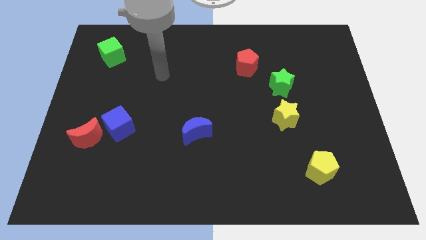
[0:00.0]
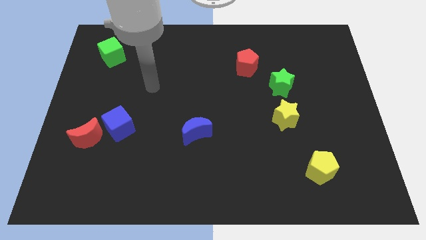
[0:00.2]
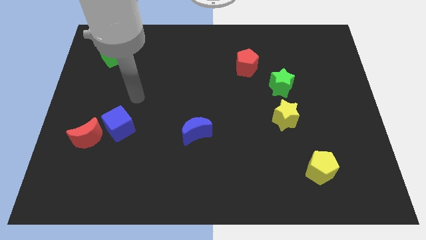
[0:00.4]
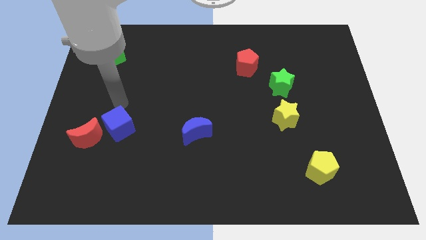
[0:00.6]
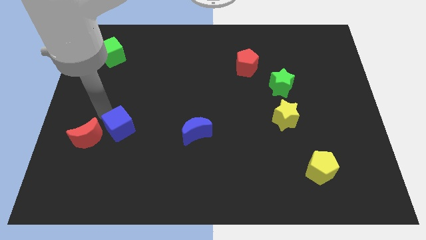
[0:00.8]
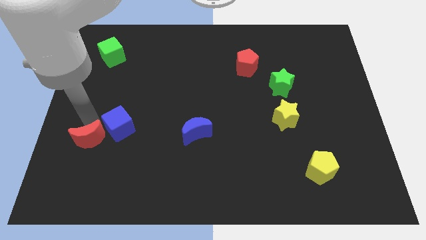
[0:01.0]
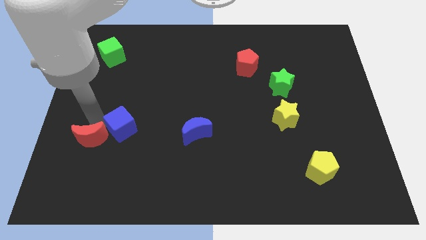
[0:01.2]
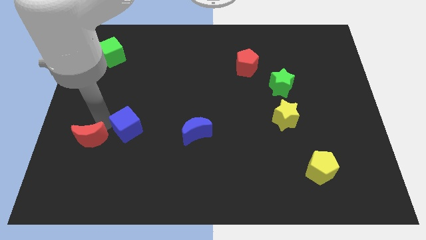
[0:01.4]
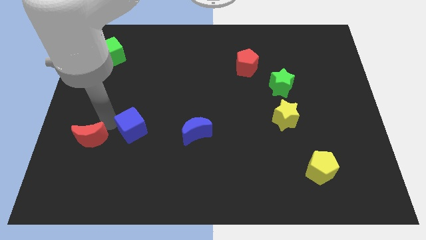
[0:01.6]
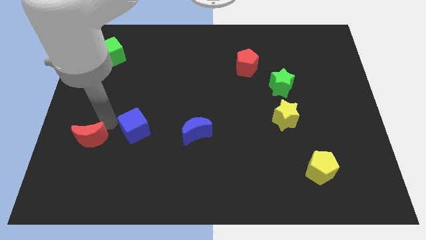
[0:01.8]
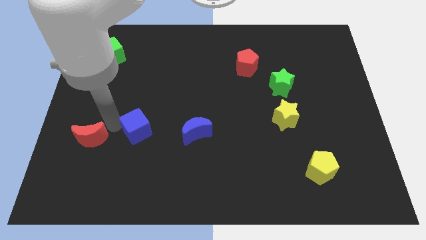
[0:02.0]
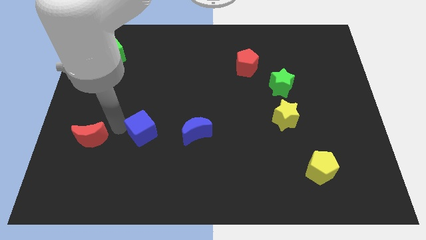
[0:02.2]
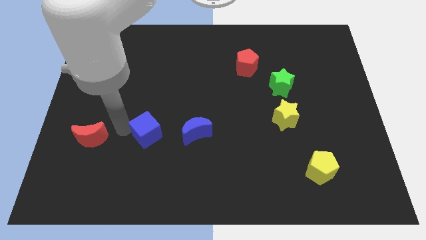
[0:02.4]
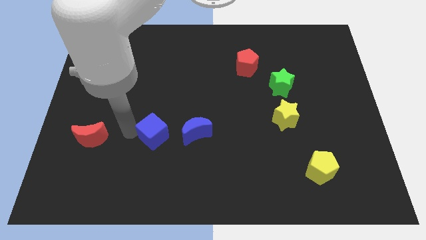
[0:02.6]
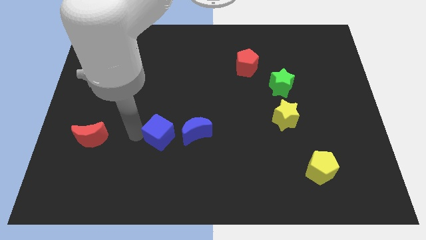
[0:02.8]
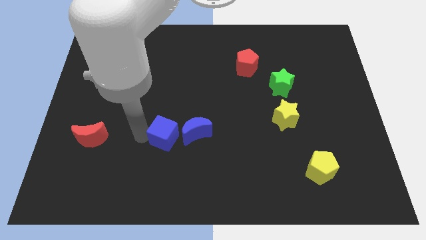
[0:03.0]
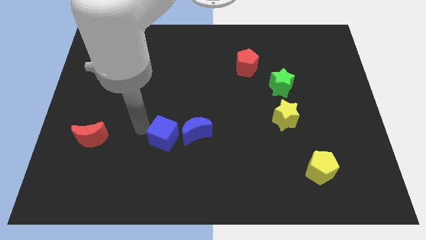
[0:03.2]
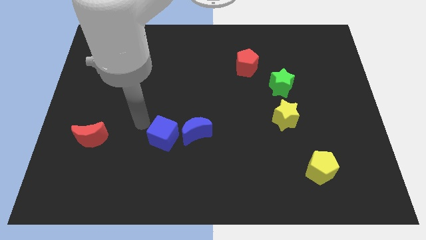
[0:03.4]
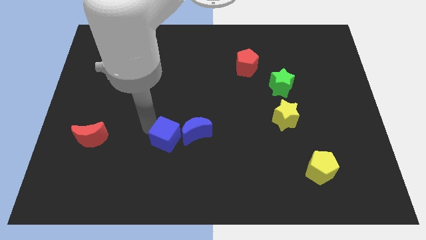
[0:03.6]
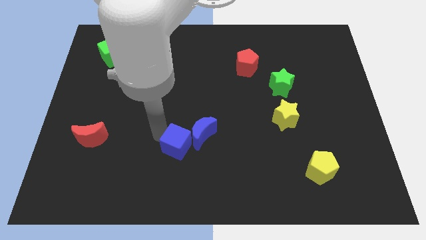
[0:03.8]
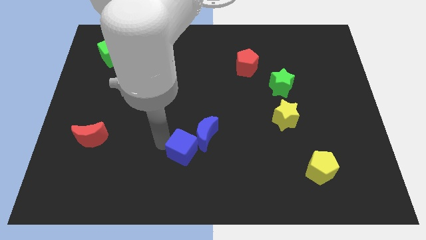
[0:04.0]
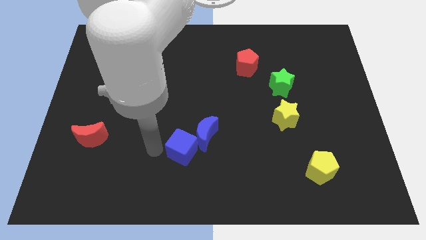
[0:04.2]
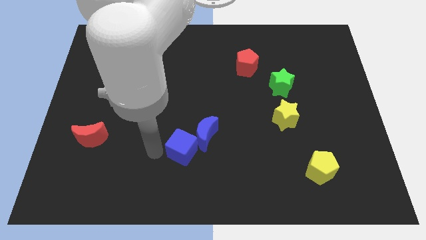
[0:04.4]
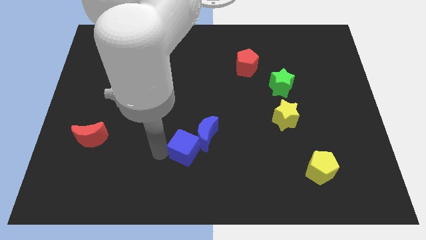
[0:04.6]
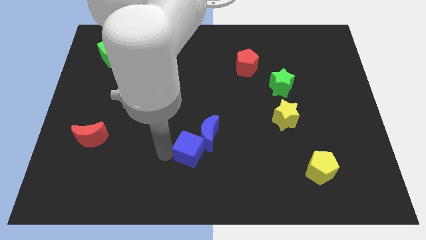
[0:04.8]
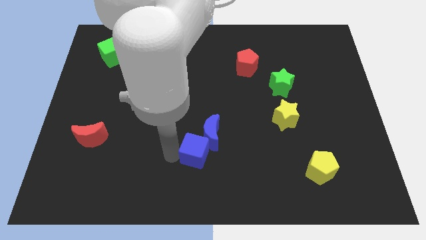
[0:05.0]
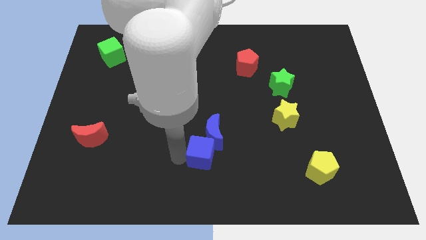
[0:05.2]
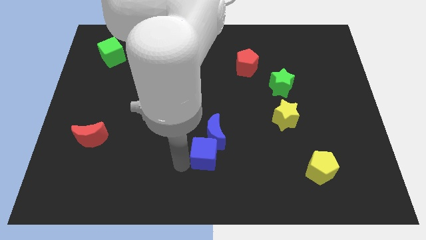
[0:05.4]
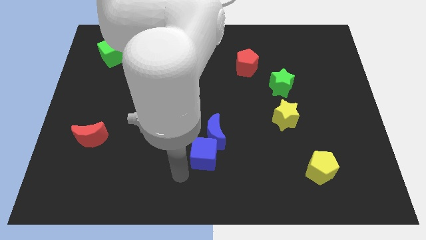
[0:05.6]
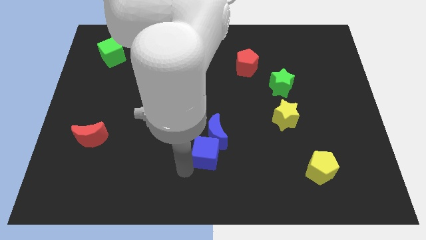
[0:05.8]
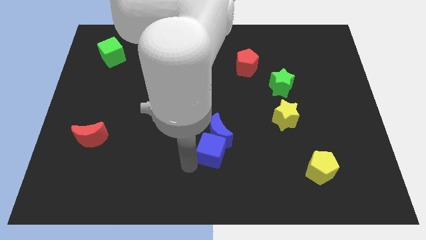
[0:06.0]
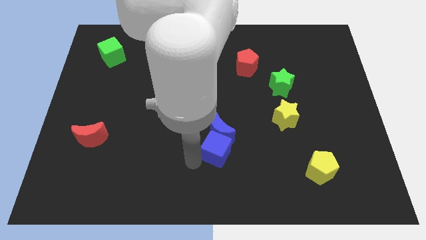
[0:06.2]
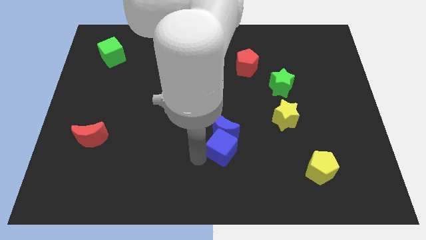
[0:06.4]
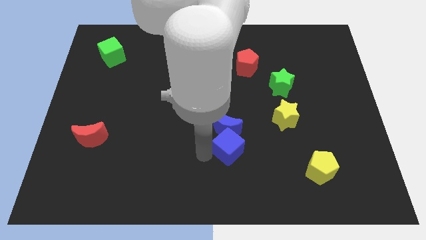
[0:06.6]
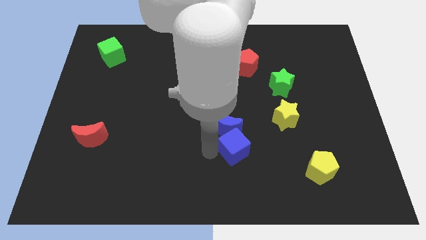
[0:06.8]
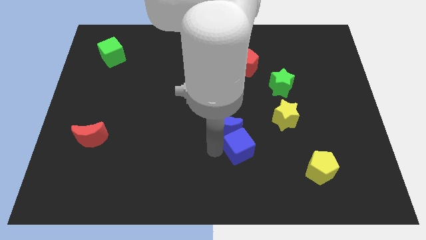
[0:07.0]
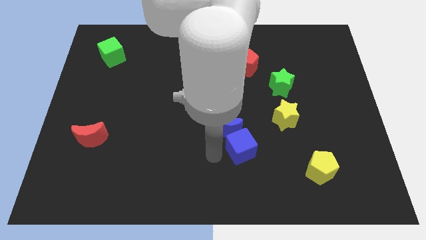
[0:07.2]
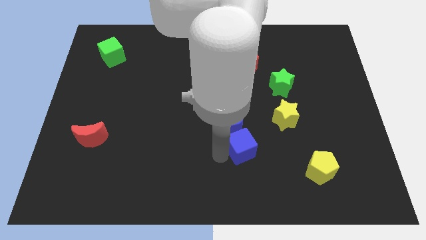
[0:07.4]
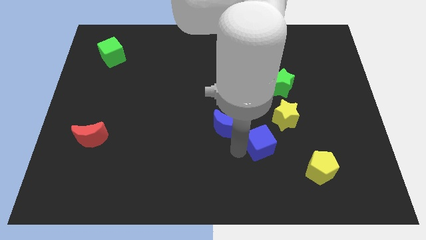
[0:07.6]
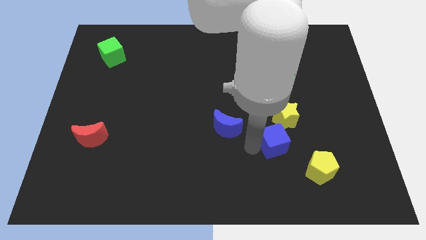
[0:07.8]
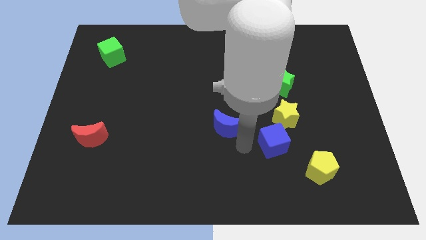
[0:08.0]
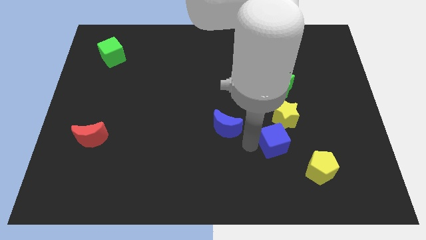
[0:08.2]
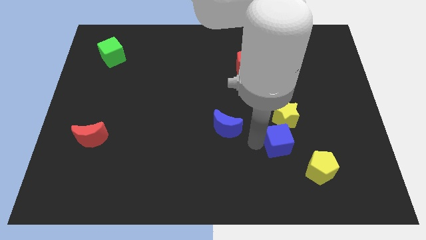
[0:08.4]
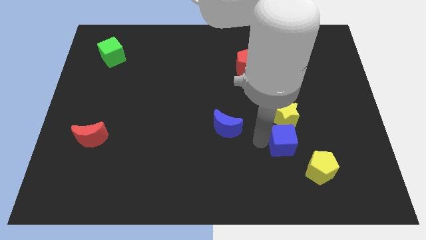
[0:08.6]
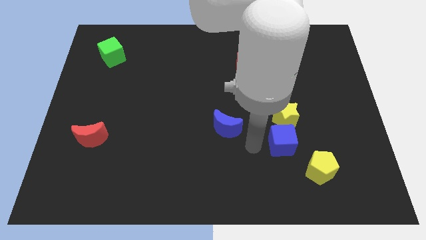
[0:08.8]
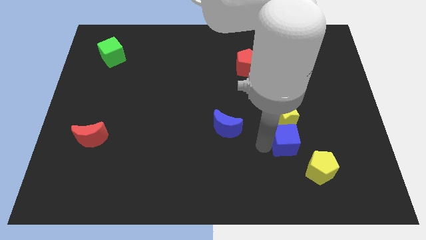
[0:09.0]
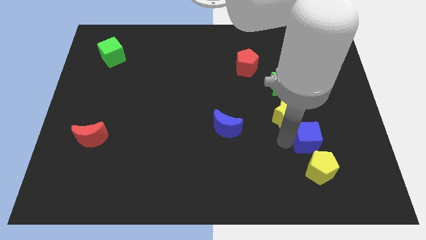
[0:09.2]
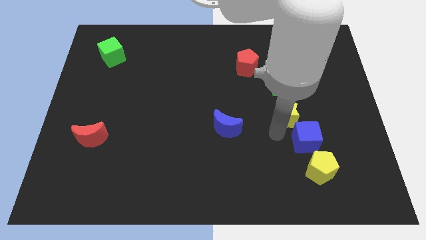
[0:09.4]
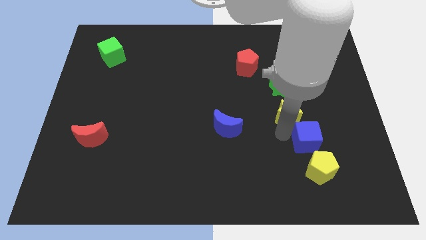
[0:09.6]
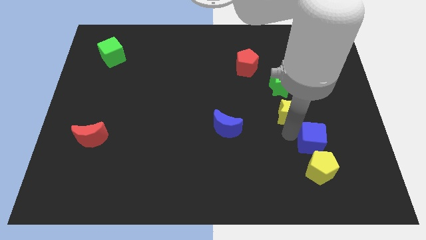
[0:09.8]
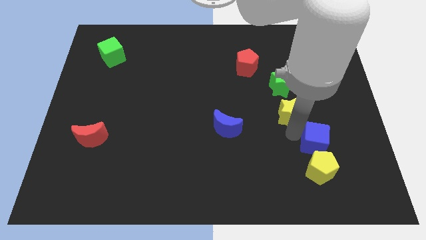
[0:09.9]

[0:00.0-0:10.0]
push the blue cube to the top right of the yellow pentagon

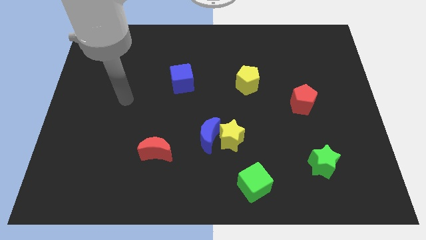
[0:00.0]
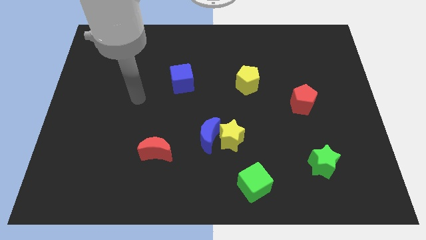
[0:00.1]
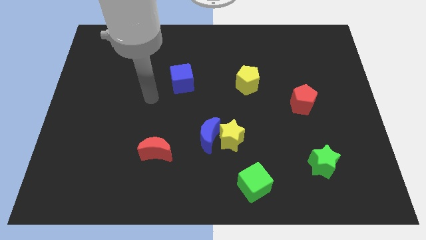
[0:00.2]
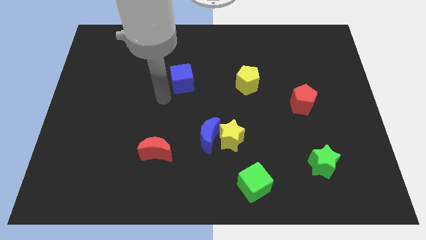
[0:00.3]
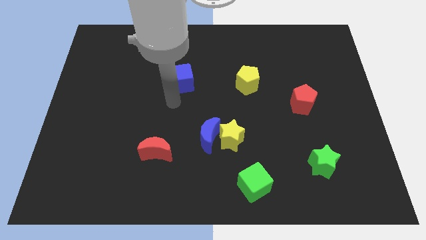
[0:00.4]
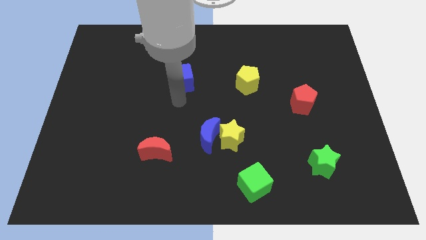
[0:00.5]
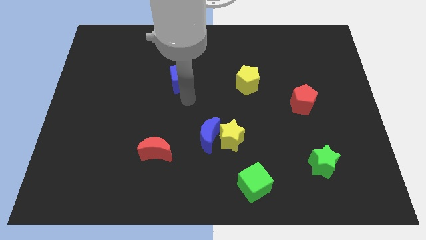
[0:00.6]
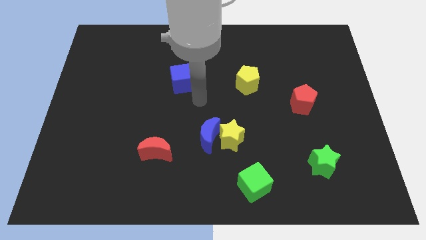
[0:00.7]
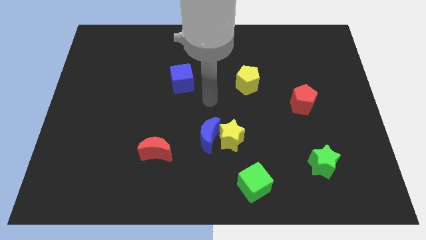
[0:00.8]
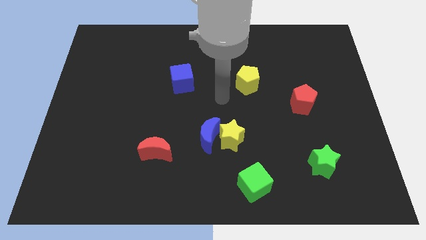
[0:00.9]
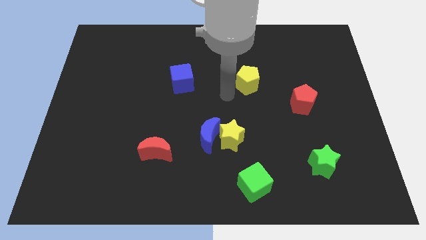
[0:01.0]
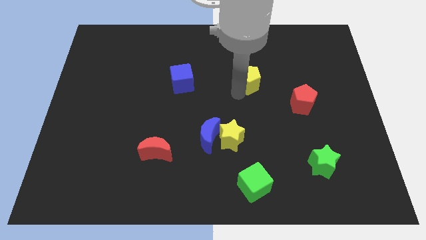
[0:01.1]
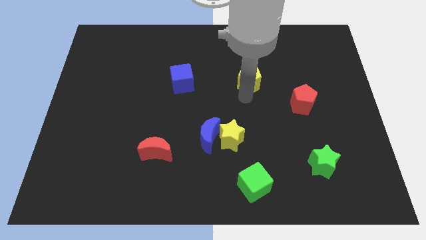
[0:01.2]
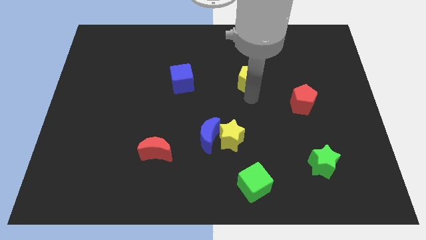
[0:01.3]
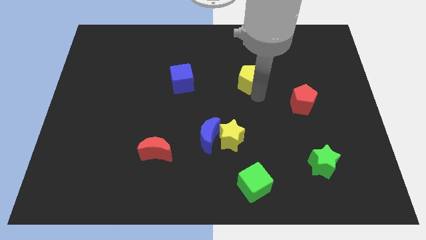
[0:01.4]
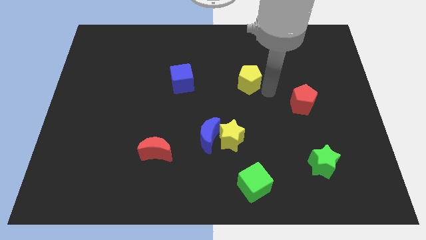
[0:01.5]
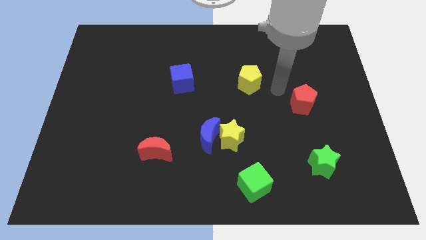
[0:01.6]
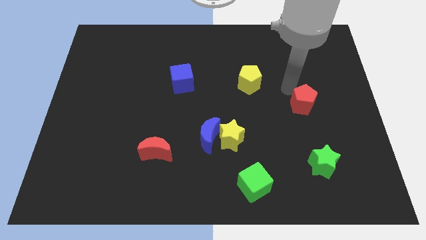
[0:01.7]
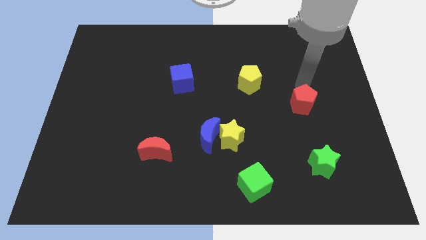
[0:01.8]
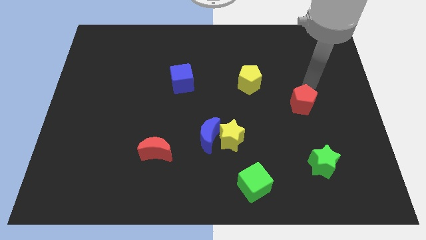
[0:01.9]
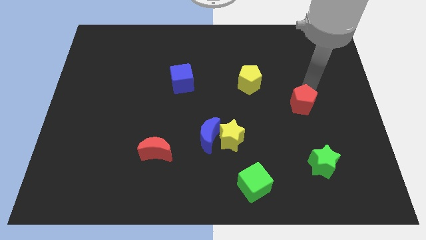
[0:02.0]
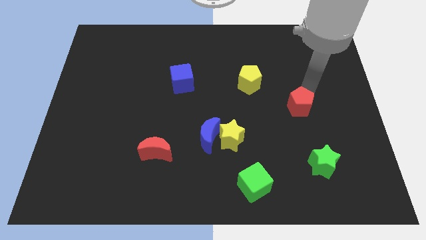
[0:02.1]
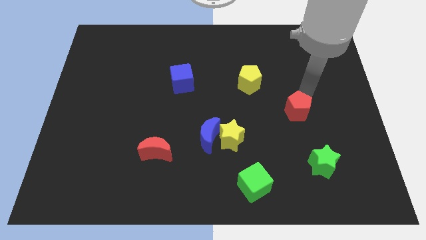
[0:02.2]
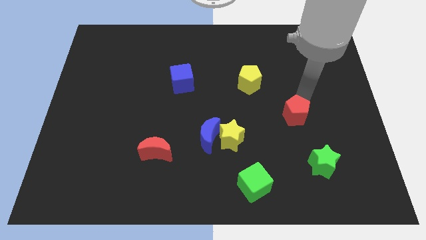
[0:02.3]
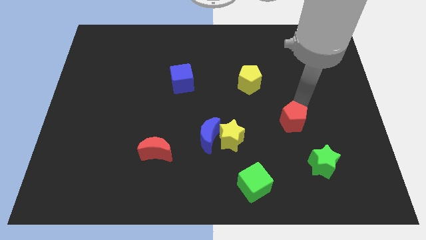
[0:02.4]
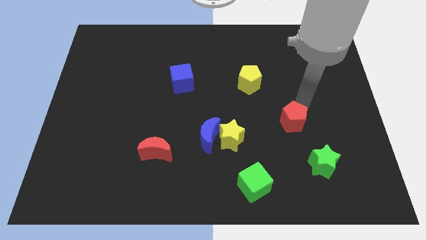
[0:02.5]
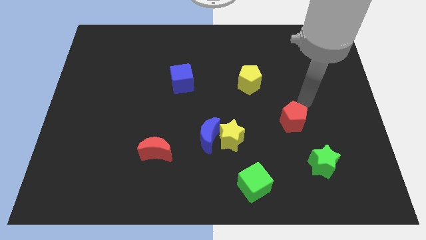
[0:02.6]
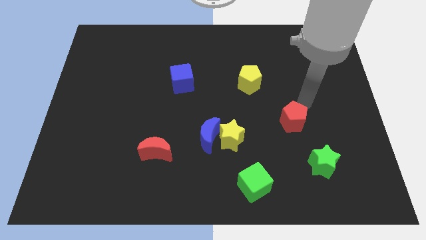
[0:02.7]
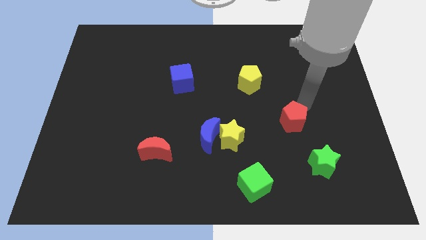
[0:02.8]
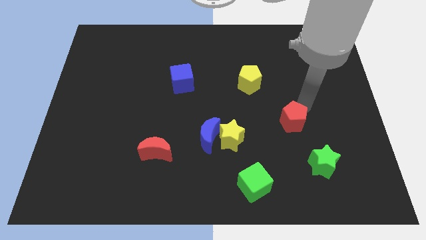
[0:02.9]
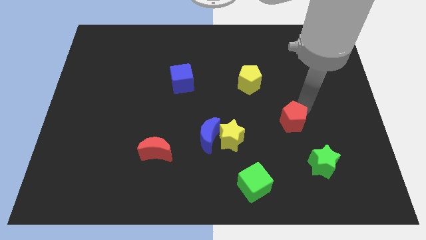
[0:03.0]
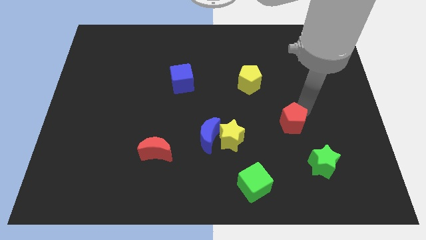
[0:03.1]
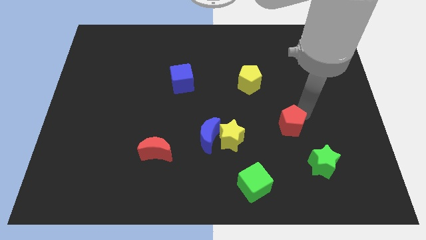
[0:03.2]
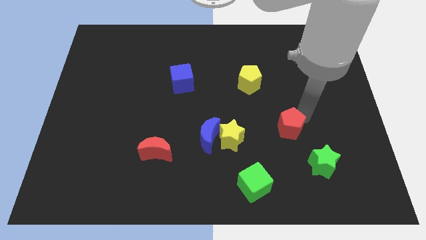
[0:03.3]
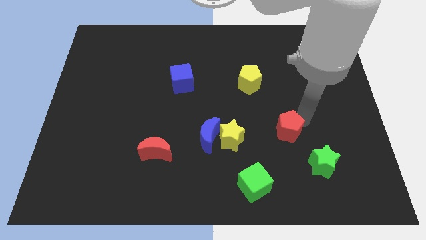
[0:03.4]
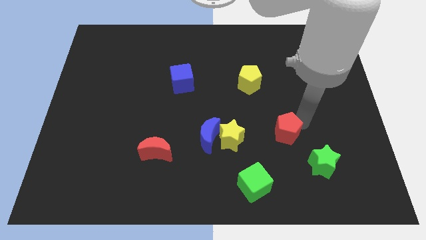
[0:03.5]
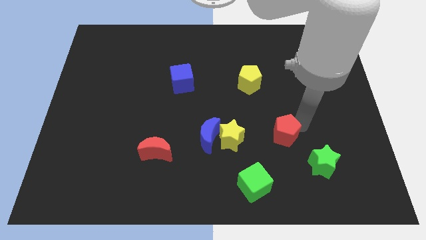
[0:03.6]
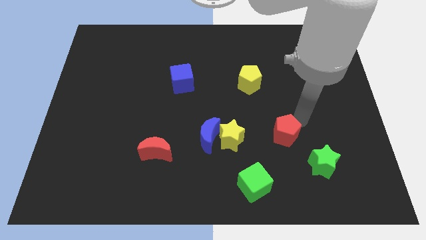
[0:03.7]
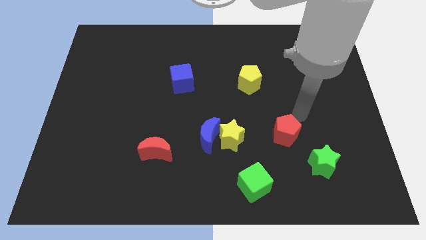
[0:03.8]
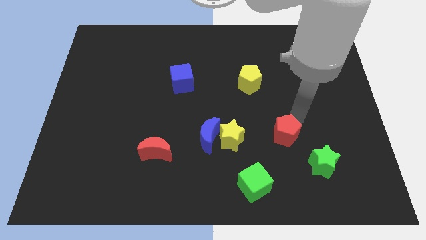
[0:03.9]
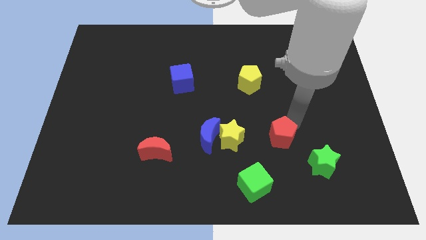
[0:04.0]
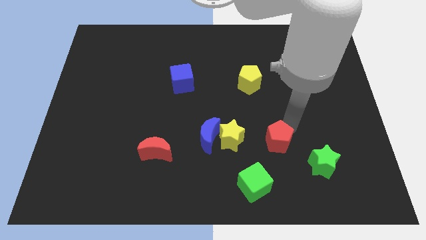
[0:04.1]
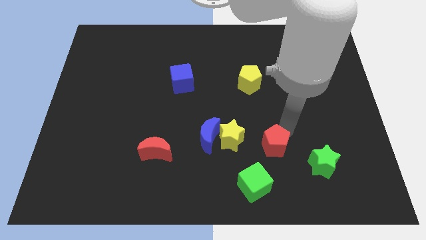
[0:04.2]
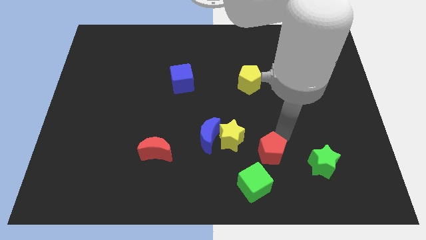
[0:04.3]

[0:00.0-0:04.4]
push the red pentagon diagonally down and to the right of the yellow star
